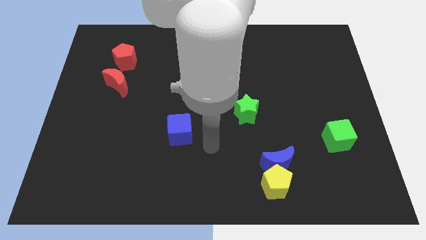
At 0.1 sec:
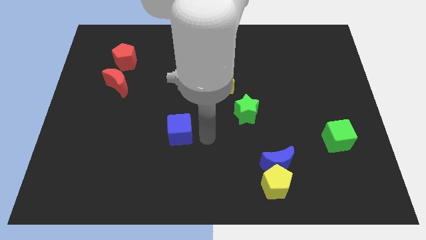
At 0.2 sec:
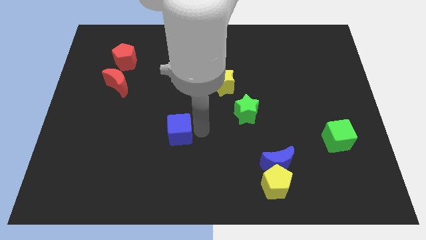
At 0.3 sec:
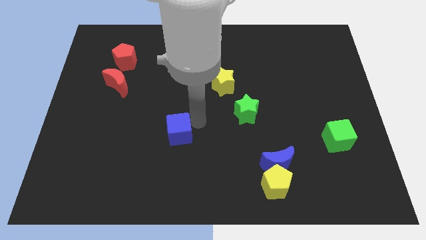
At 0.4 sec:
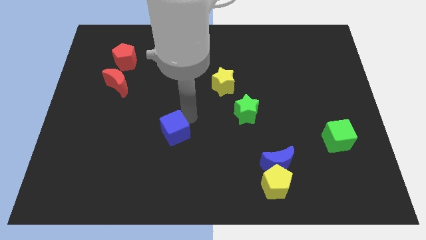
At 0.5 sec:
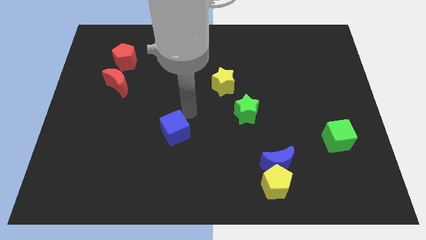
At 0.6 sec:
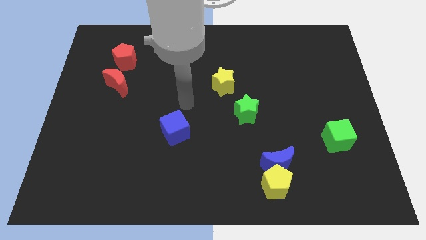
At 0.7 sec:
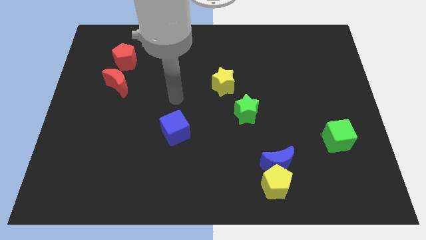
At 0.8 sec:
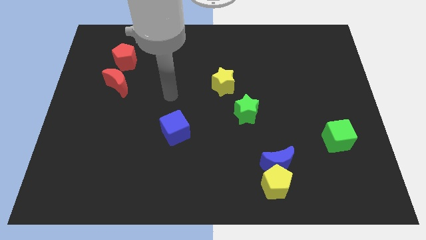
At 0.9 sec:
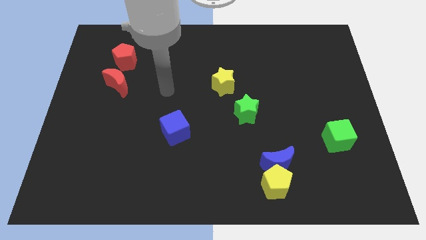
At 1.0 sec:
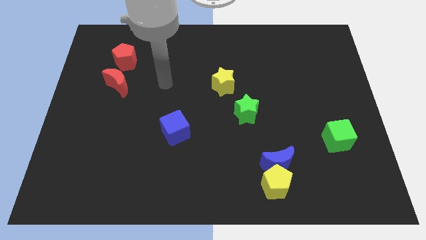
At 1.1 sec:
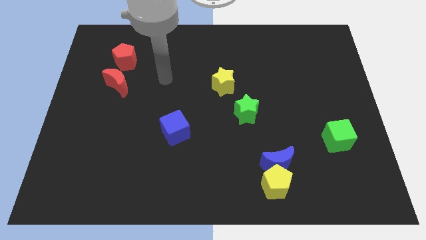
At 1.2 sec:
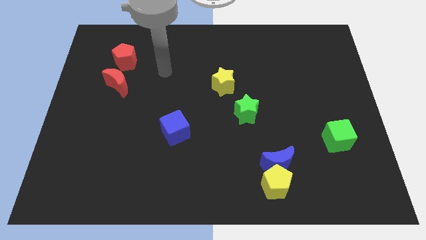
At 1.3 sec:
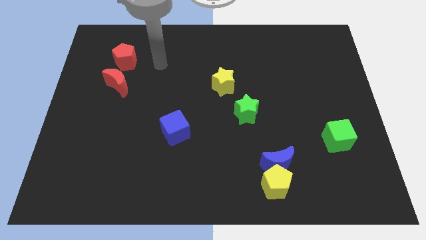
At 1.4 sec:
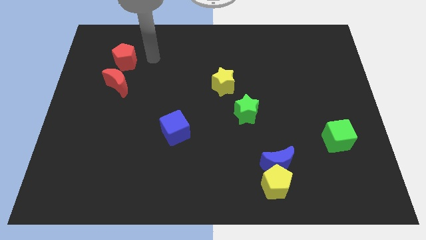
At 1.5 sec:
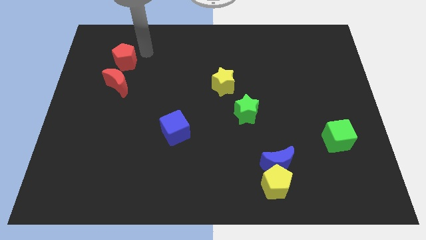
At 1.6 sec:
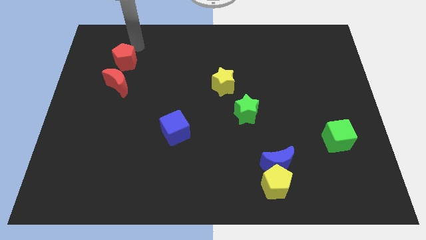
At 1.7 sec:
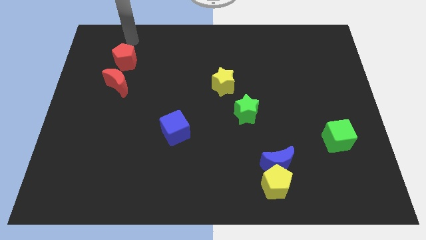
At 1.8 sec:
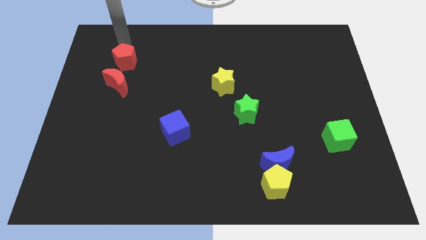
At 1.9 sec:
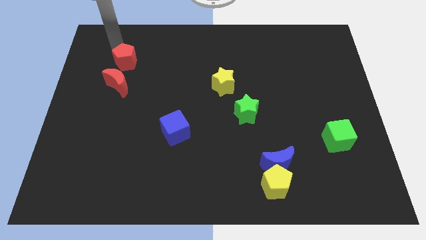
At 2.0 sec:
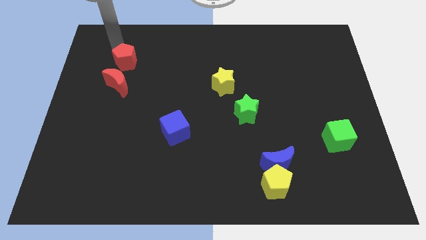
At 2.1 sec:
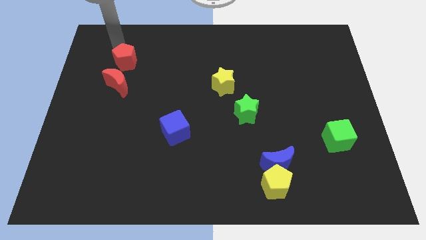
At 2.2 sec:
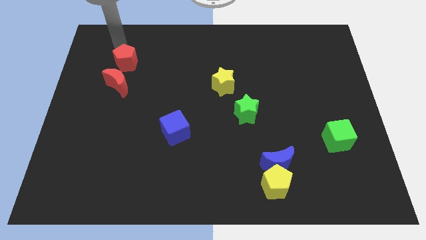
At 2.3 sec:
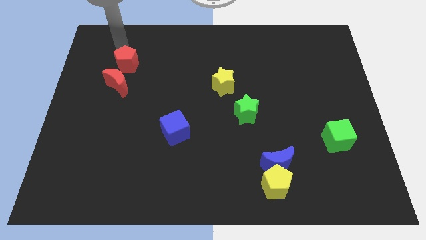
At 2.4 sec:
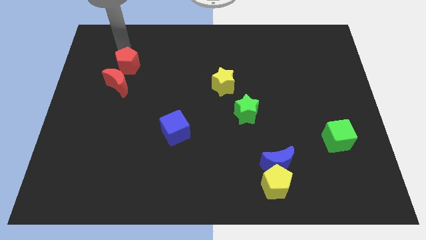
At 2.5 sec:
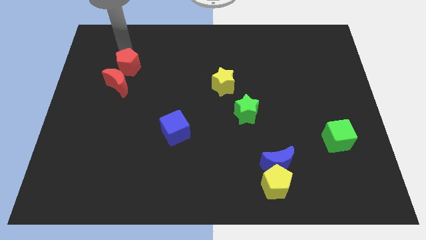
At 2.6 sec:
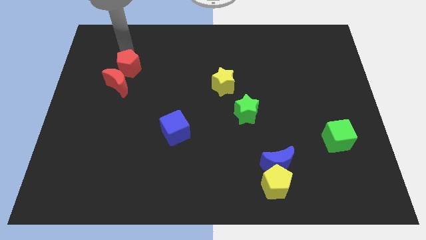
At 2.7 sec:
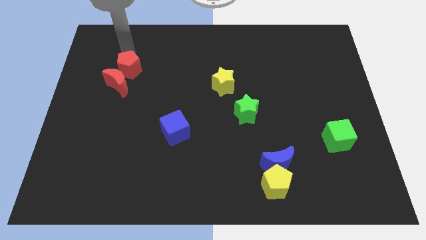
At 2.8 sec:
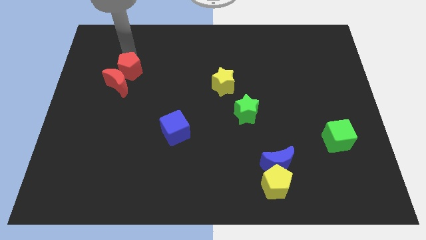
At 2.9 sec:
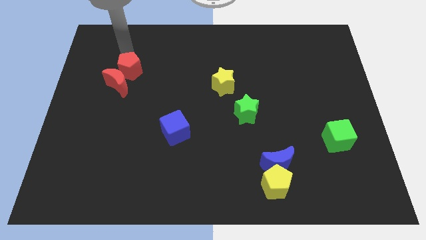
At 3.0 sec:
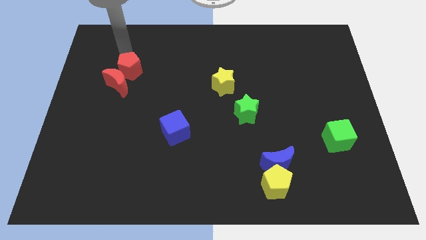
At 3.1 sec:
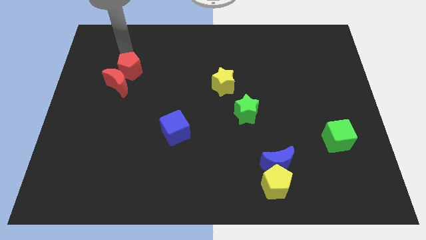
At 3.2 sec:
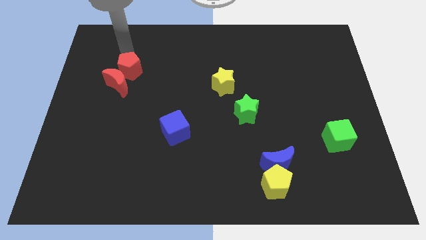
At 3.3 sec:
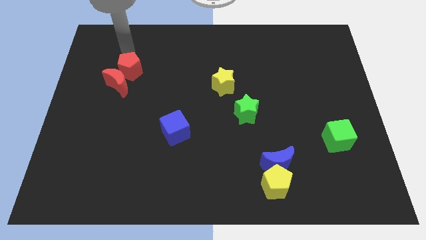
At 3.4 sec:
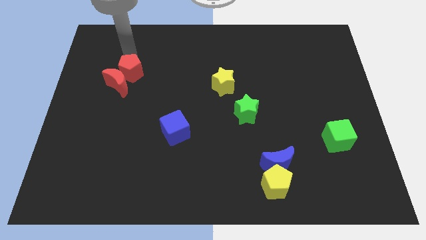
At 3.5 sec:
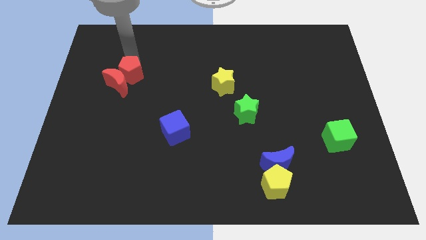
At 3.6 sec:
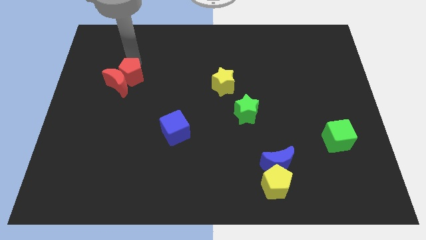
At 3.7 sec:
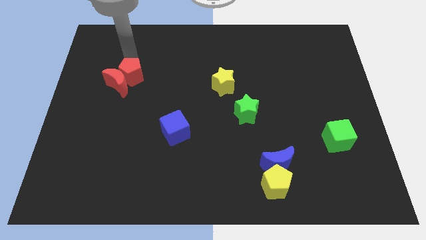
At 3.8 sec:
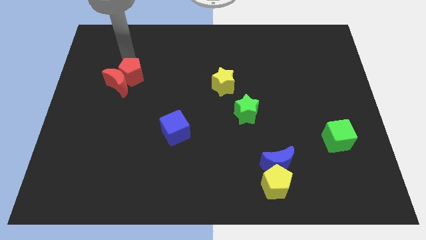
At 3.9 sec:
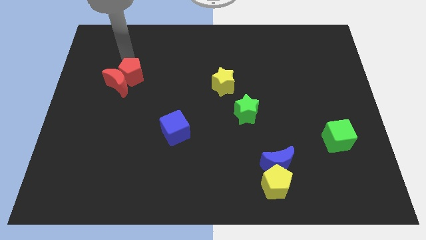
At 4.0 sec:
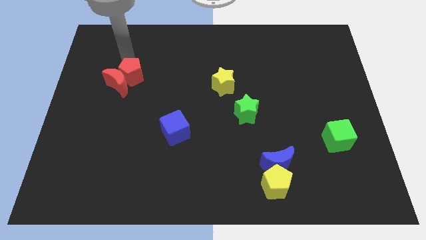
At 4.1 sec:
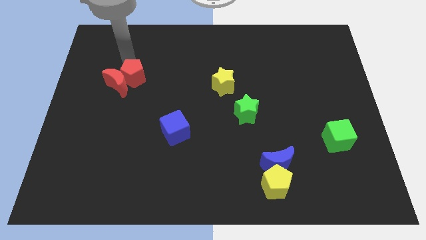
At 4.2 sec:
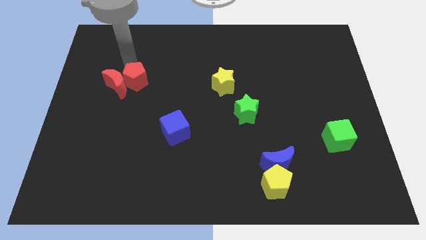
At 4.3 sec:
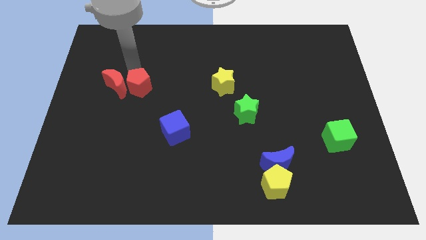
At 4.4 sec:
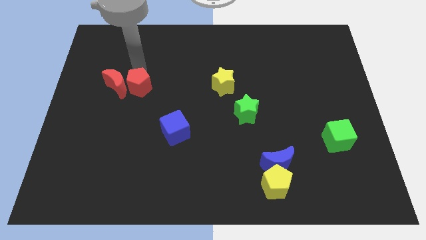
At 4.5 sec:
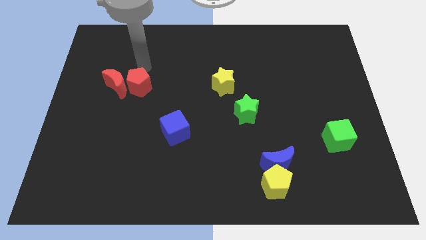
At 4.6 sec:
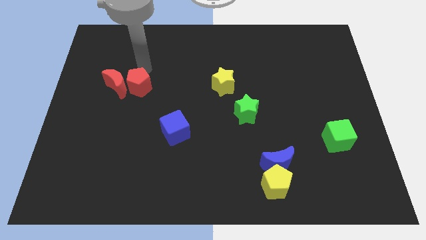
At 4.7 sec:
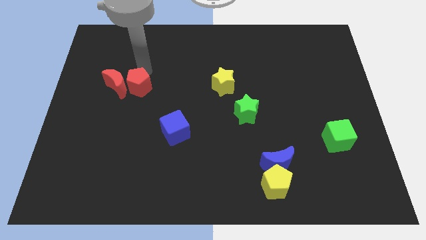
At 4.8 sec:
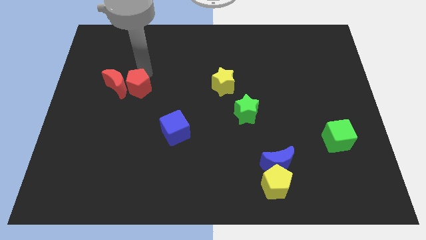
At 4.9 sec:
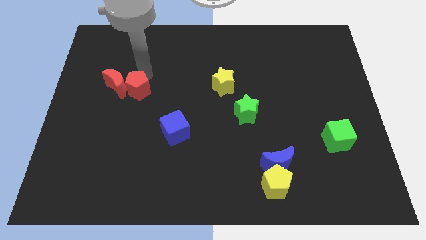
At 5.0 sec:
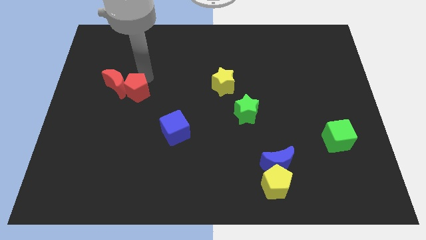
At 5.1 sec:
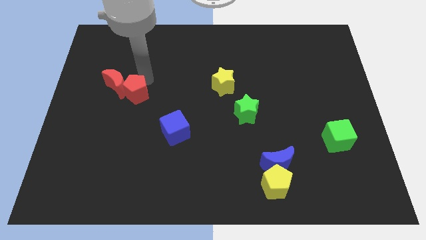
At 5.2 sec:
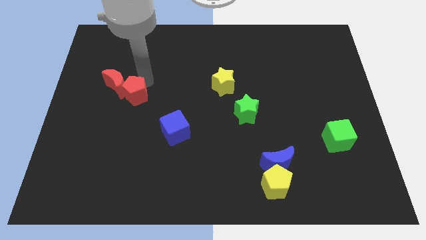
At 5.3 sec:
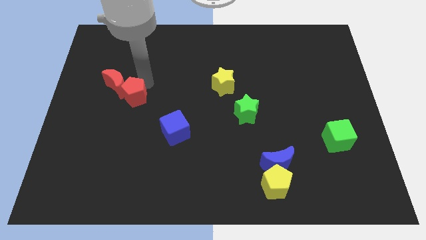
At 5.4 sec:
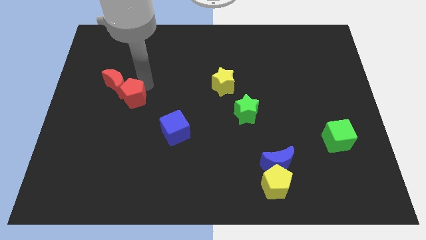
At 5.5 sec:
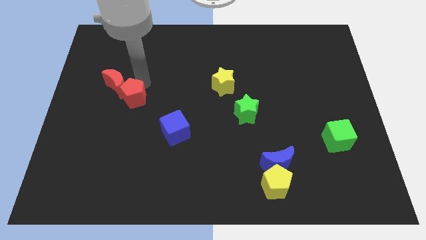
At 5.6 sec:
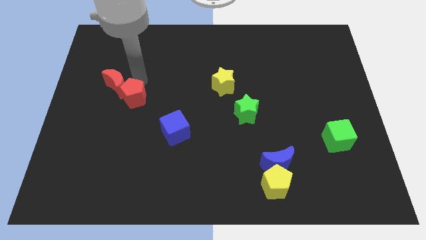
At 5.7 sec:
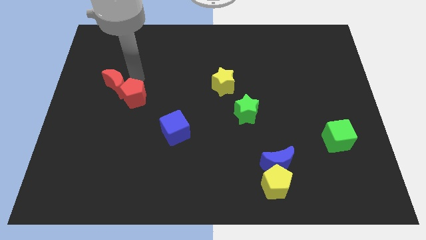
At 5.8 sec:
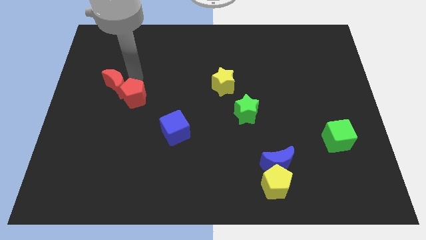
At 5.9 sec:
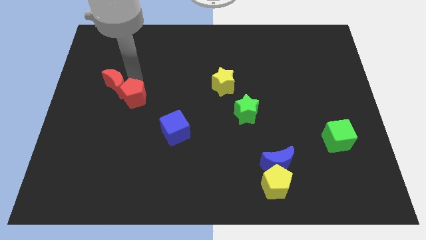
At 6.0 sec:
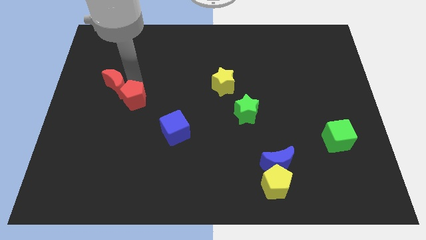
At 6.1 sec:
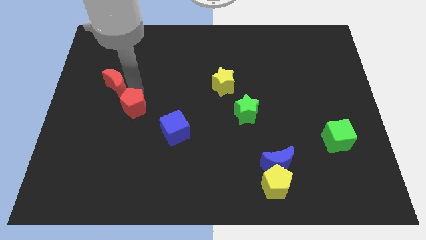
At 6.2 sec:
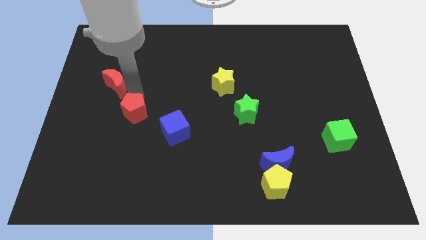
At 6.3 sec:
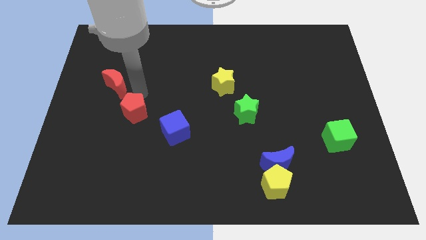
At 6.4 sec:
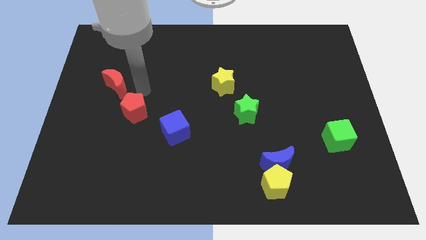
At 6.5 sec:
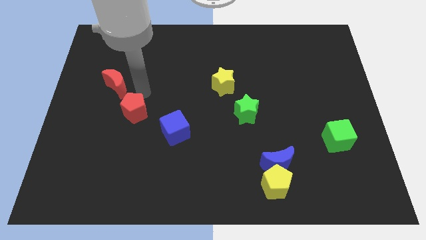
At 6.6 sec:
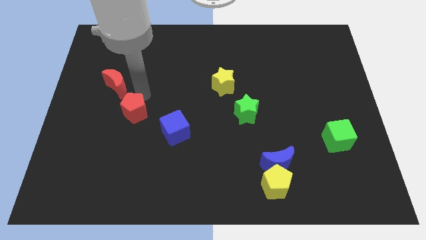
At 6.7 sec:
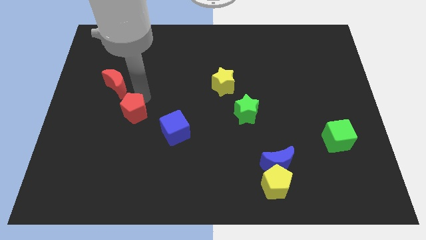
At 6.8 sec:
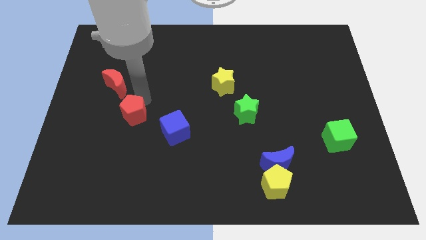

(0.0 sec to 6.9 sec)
push the red pentagon left of the blue cube
